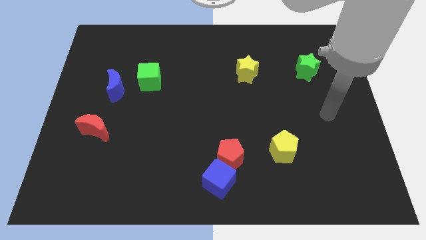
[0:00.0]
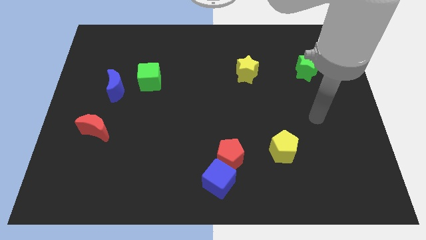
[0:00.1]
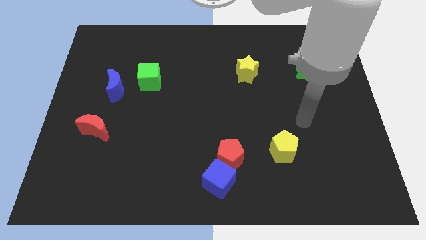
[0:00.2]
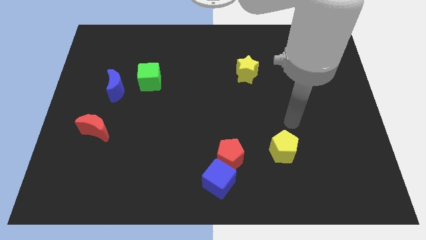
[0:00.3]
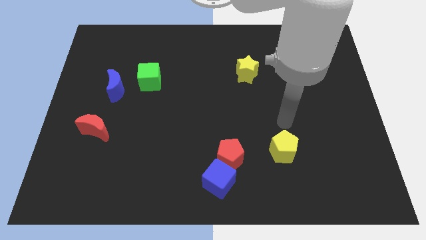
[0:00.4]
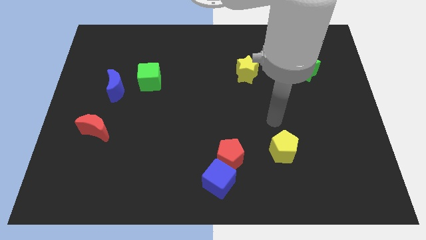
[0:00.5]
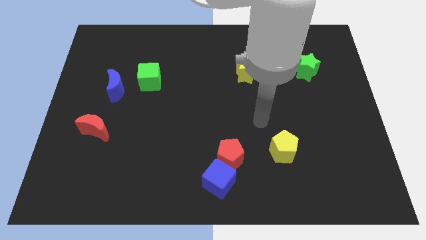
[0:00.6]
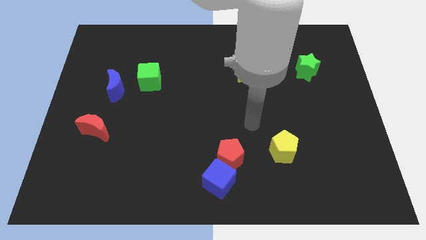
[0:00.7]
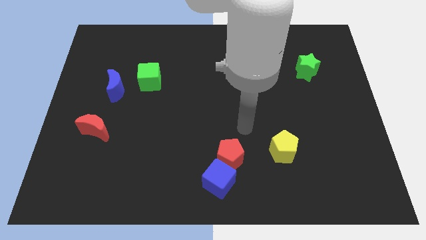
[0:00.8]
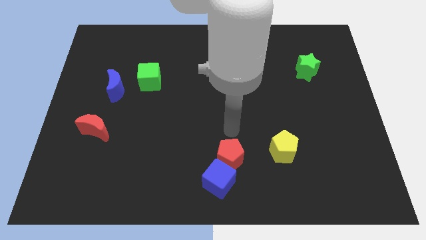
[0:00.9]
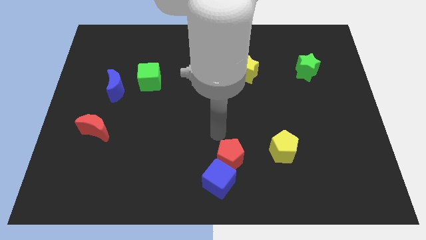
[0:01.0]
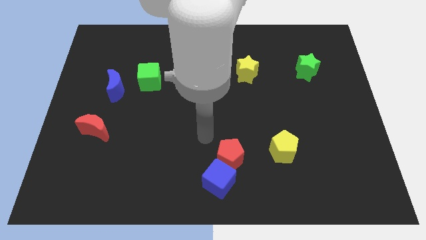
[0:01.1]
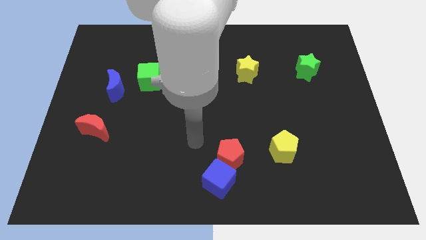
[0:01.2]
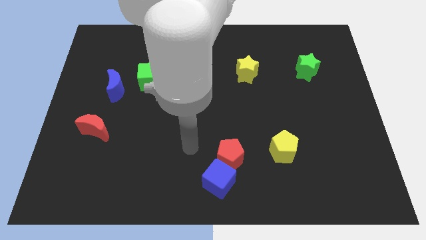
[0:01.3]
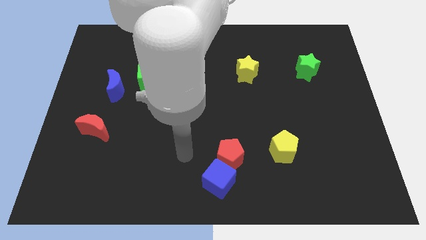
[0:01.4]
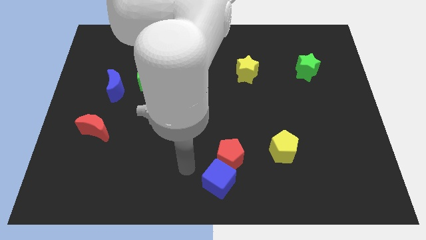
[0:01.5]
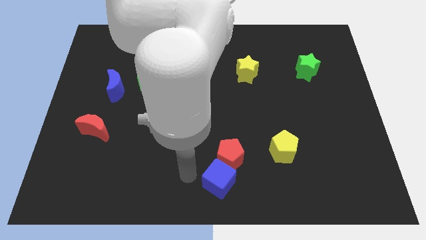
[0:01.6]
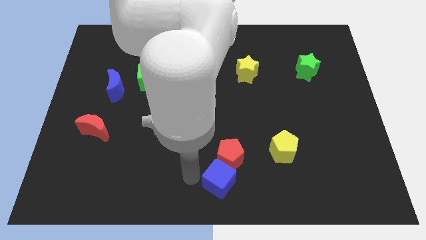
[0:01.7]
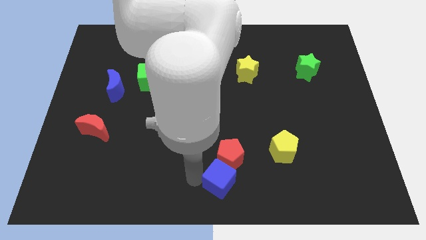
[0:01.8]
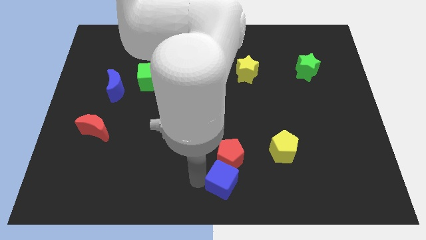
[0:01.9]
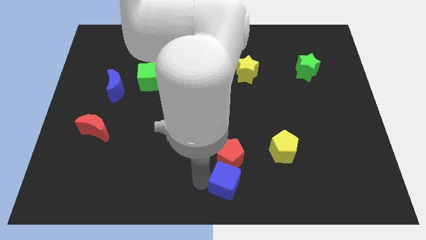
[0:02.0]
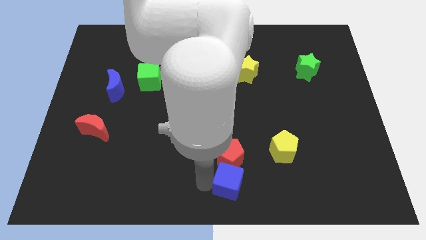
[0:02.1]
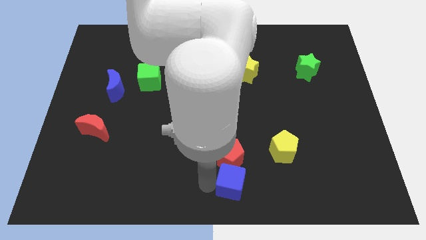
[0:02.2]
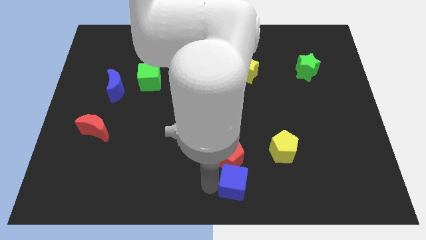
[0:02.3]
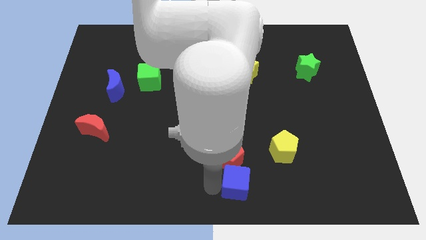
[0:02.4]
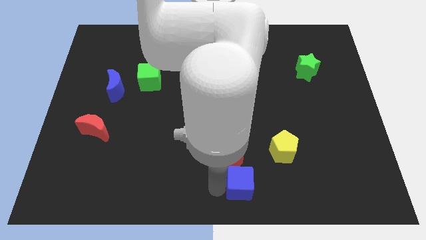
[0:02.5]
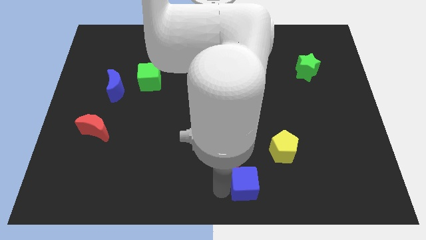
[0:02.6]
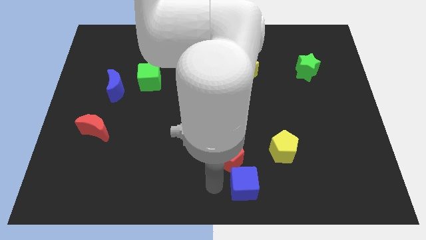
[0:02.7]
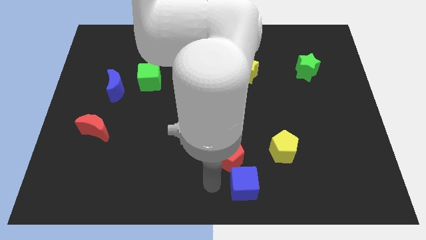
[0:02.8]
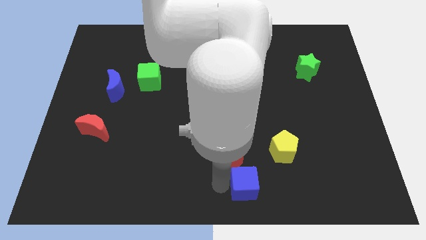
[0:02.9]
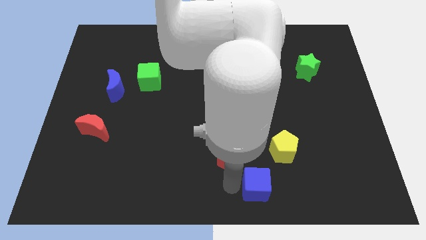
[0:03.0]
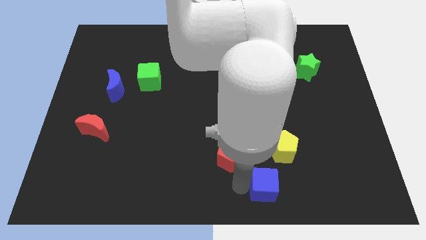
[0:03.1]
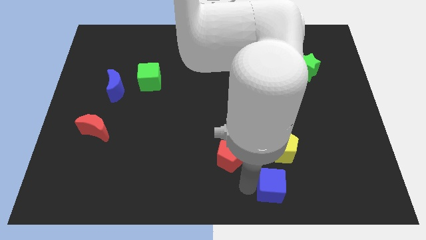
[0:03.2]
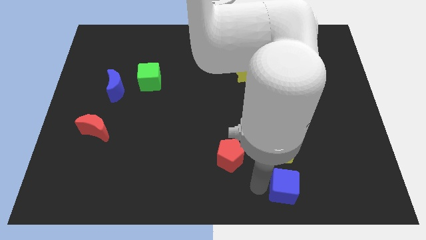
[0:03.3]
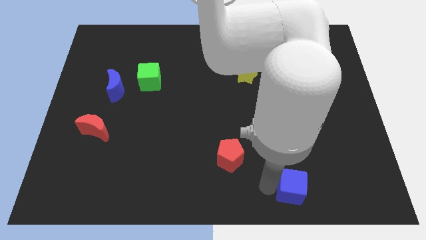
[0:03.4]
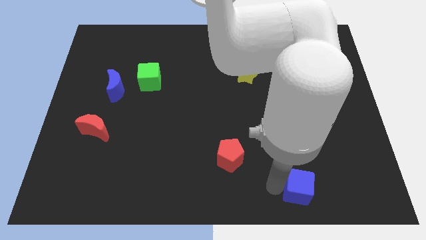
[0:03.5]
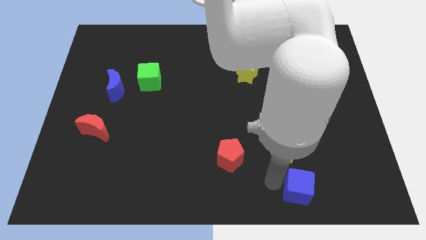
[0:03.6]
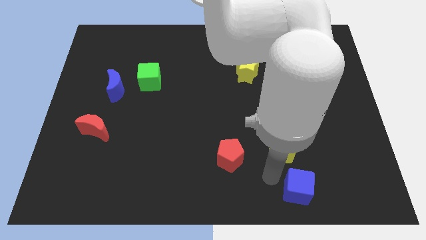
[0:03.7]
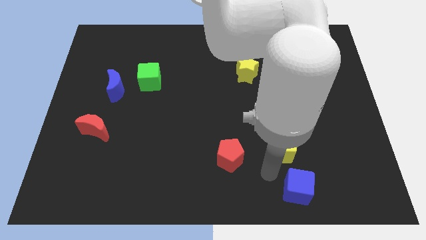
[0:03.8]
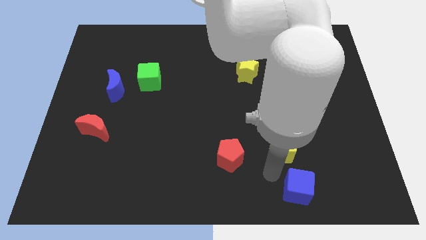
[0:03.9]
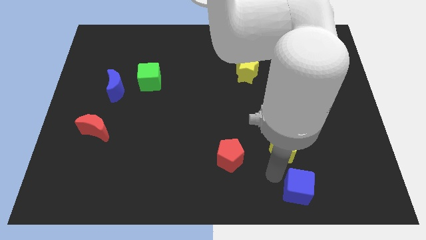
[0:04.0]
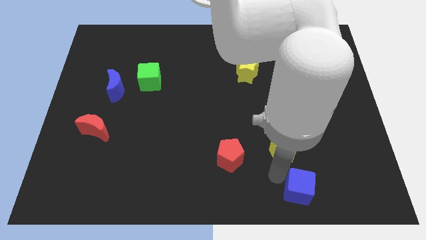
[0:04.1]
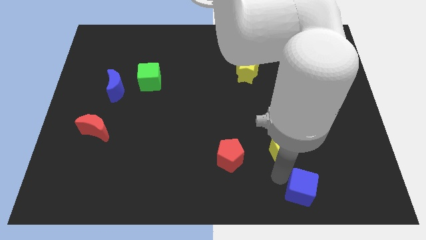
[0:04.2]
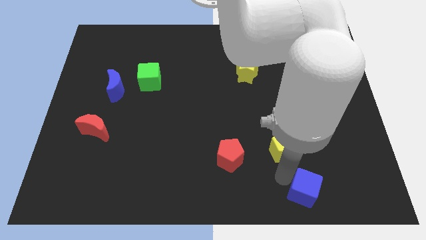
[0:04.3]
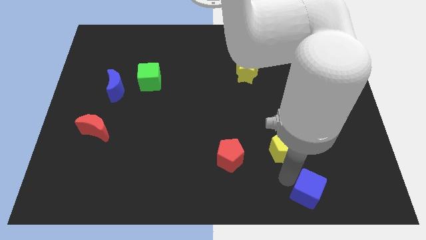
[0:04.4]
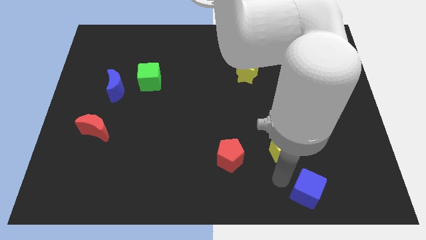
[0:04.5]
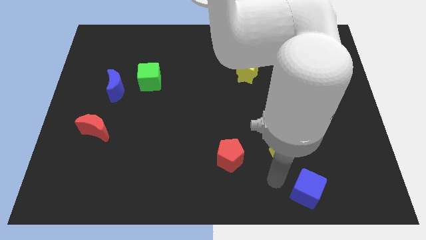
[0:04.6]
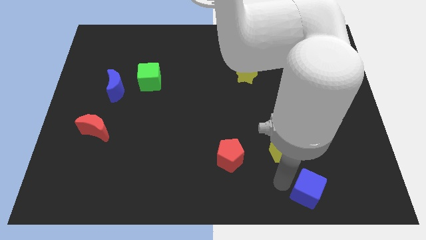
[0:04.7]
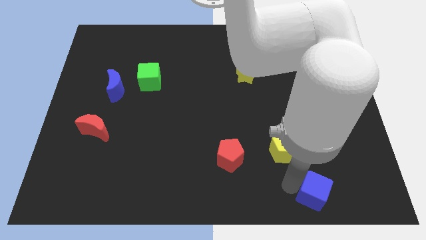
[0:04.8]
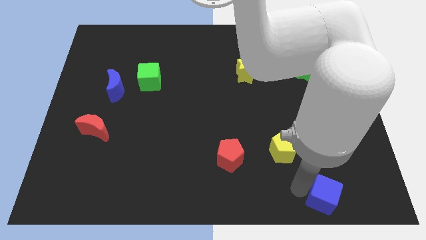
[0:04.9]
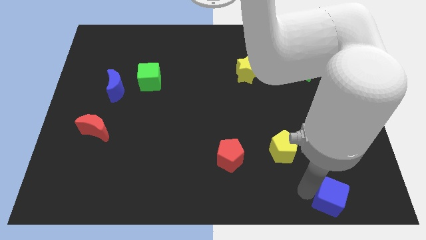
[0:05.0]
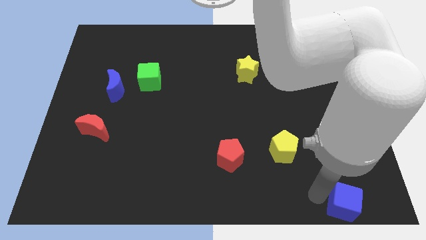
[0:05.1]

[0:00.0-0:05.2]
move the blue cube to the bottom right corner

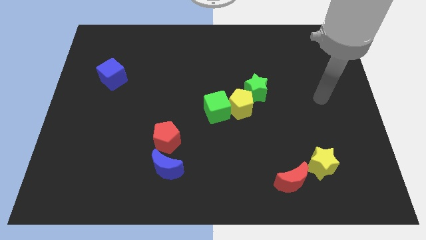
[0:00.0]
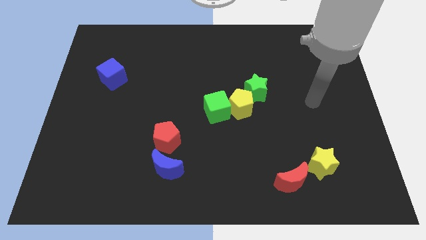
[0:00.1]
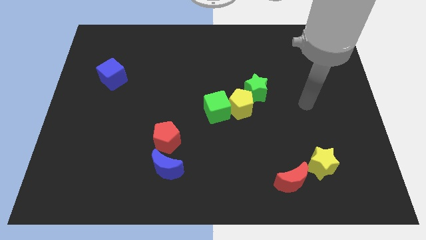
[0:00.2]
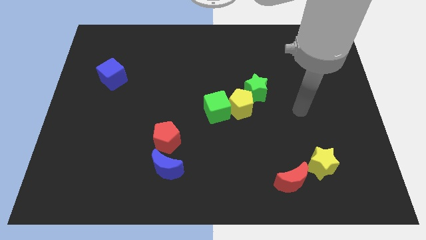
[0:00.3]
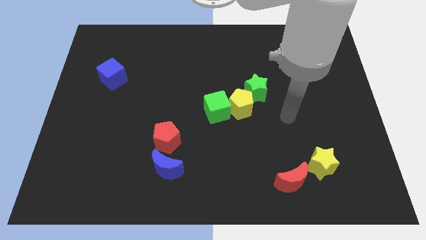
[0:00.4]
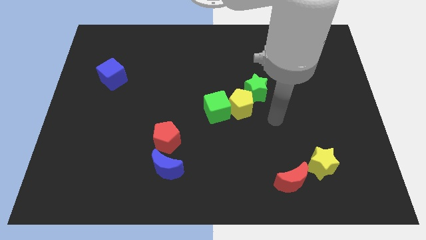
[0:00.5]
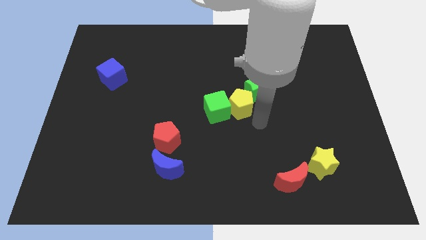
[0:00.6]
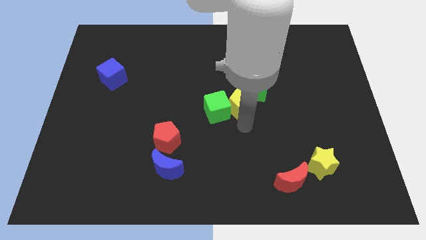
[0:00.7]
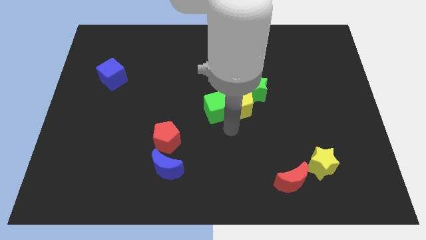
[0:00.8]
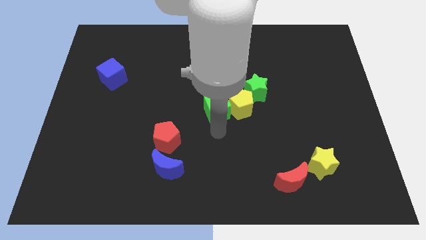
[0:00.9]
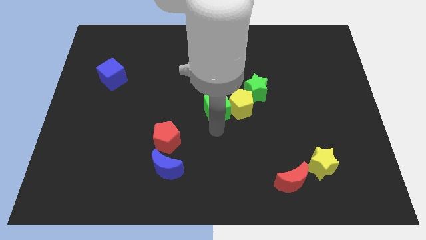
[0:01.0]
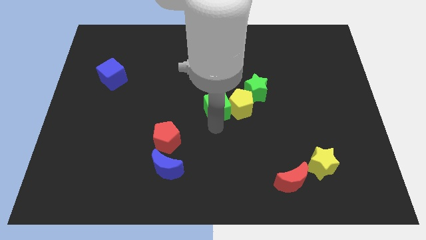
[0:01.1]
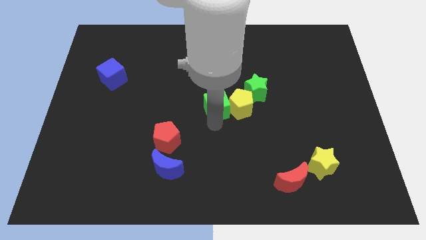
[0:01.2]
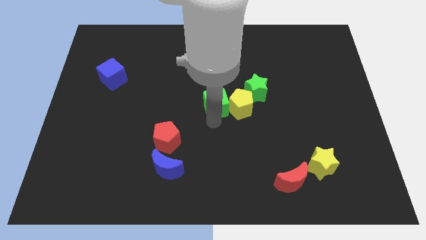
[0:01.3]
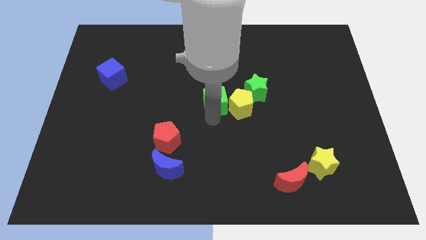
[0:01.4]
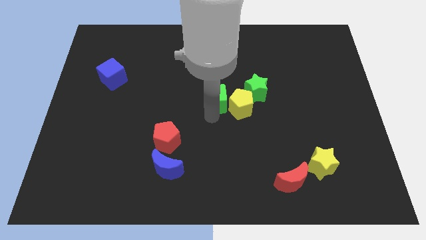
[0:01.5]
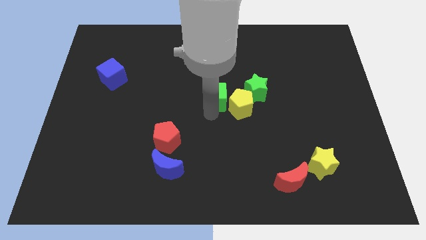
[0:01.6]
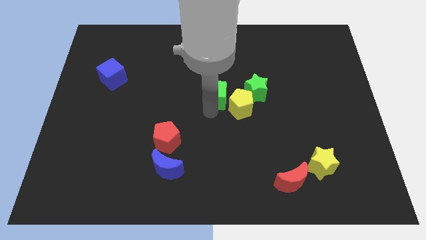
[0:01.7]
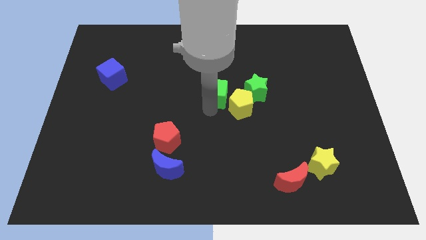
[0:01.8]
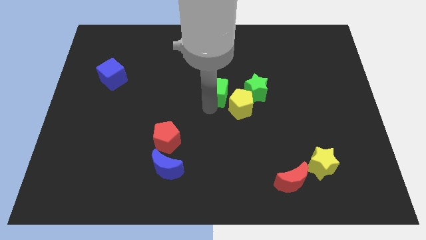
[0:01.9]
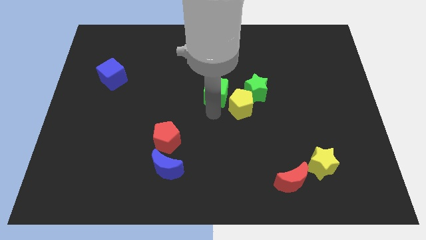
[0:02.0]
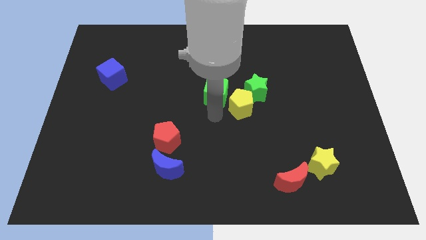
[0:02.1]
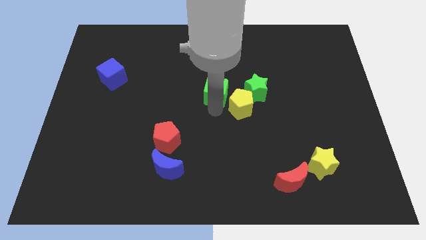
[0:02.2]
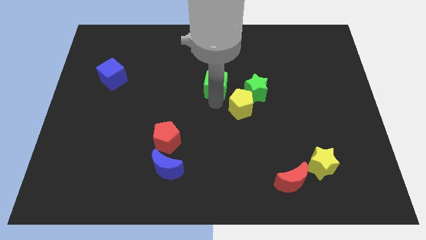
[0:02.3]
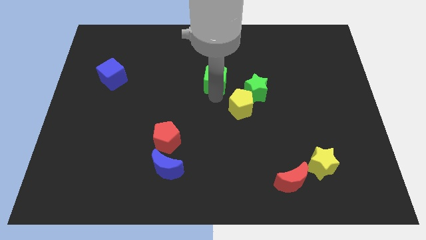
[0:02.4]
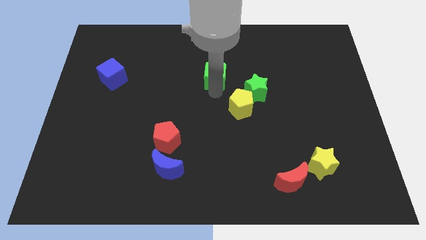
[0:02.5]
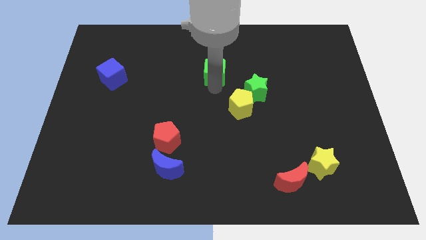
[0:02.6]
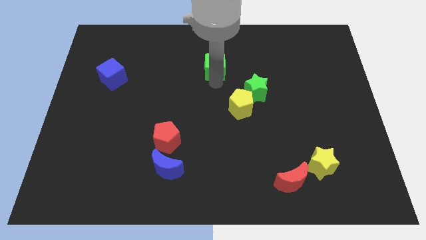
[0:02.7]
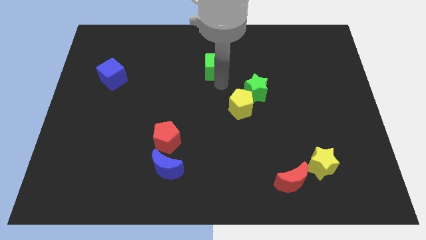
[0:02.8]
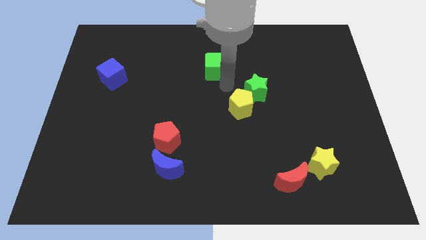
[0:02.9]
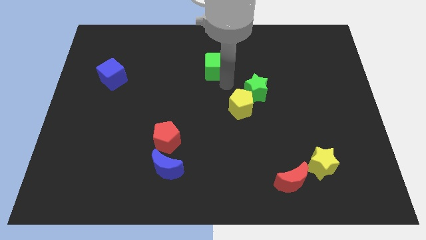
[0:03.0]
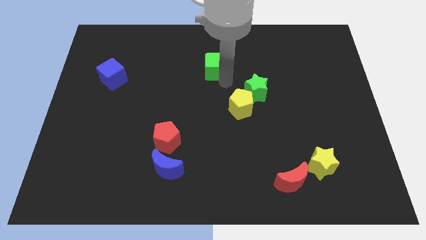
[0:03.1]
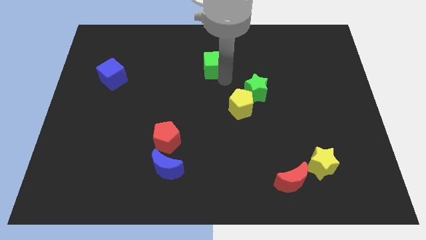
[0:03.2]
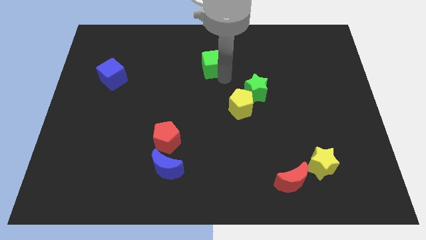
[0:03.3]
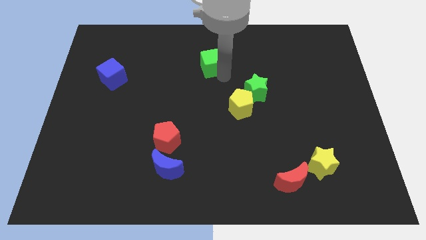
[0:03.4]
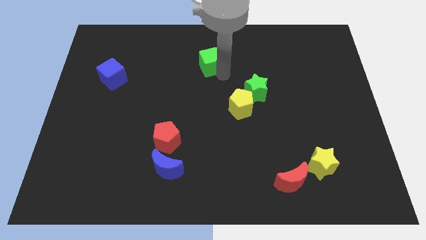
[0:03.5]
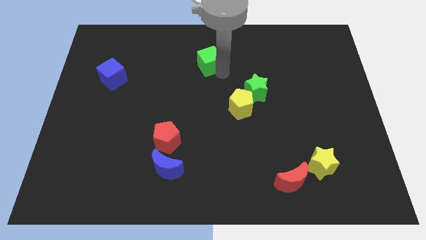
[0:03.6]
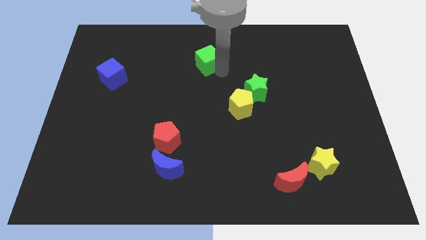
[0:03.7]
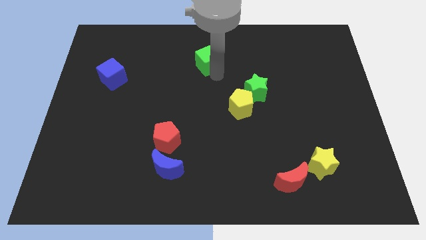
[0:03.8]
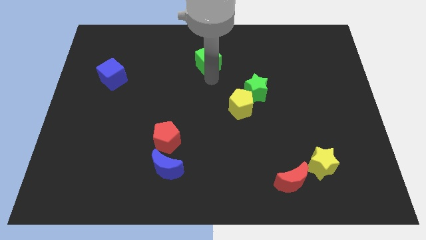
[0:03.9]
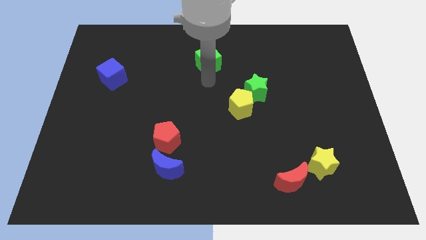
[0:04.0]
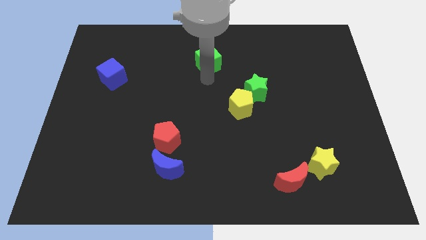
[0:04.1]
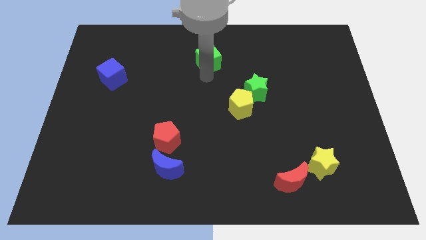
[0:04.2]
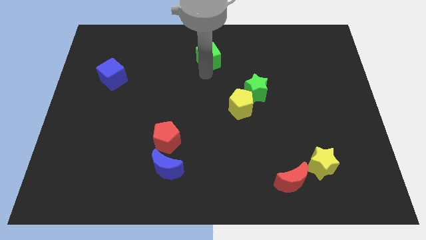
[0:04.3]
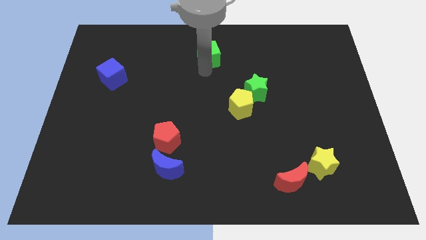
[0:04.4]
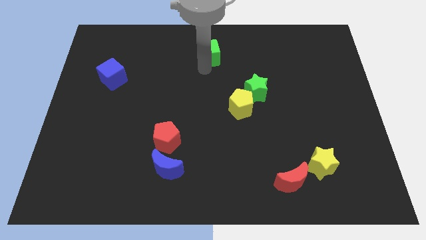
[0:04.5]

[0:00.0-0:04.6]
put the green cube to the top side
